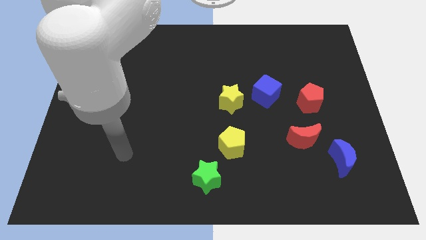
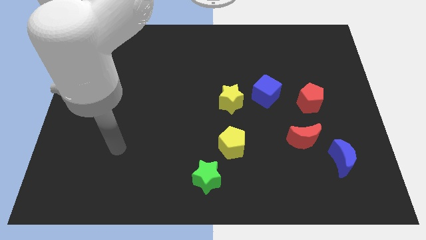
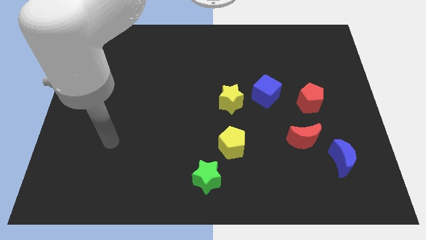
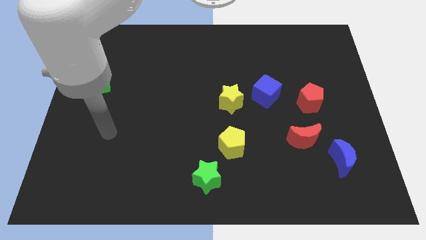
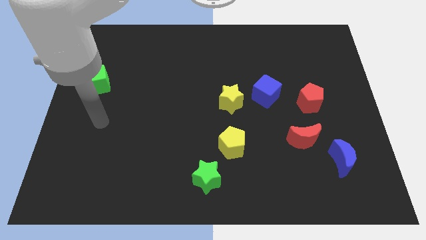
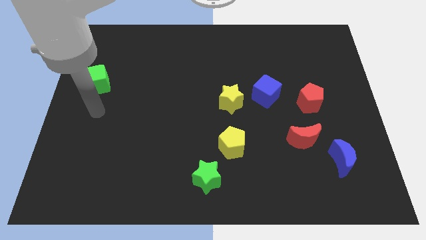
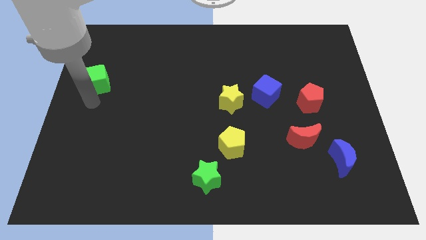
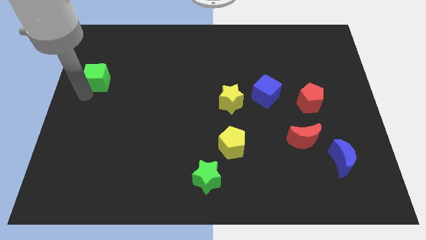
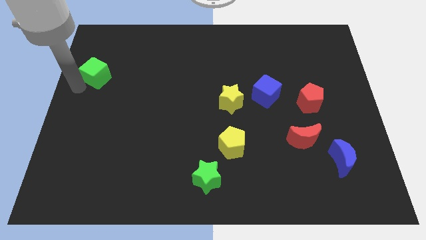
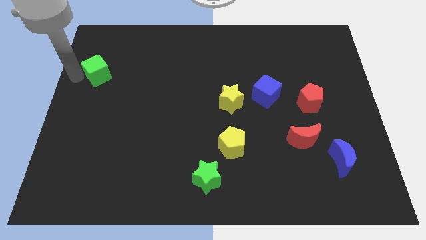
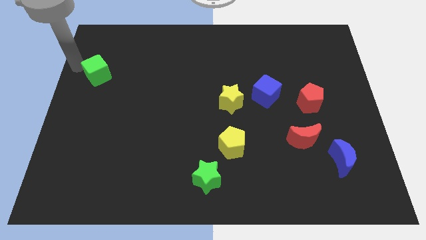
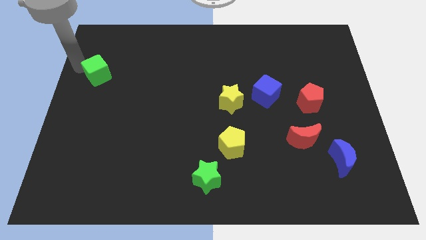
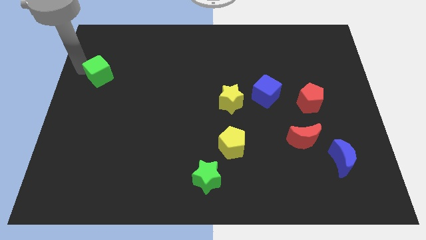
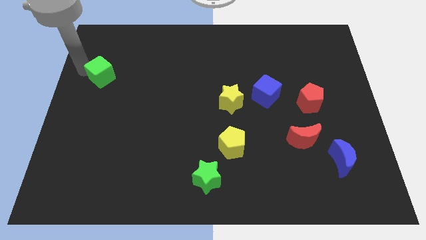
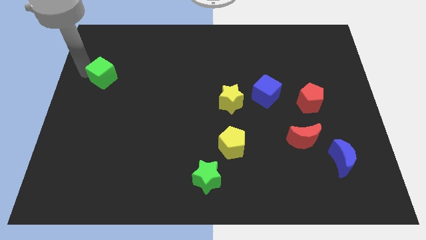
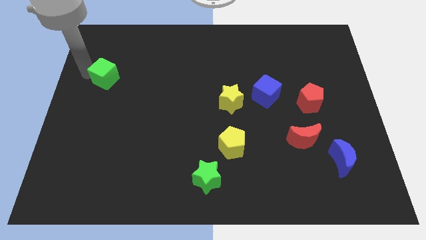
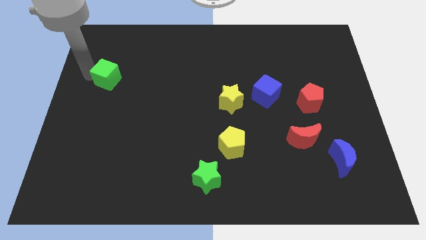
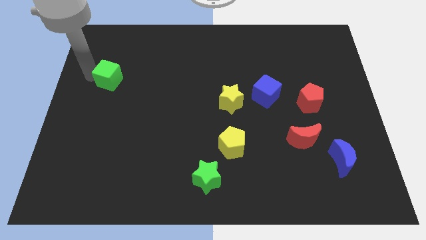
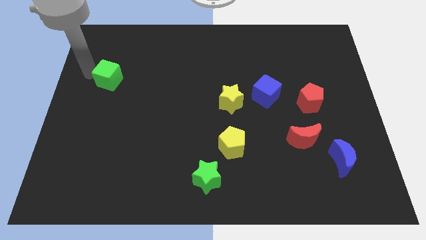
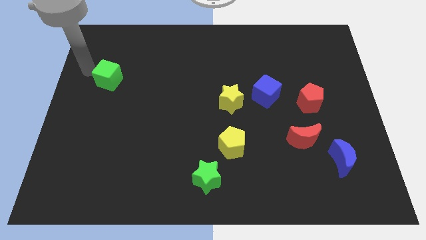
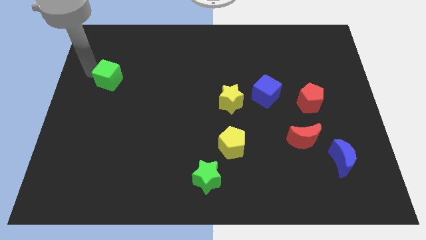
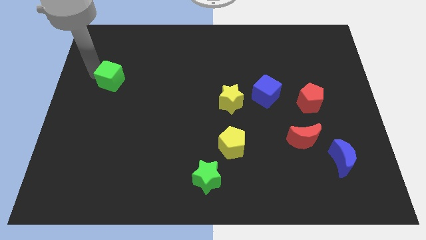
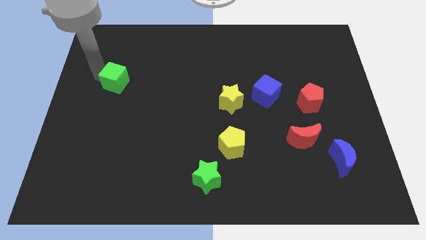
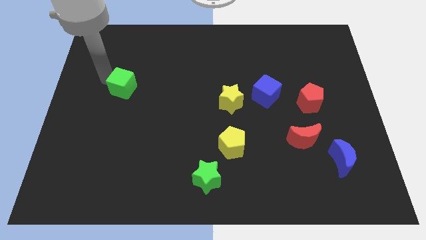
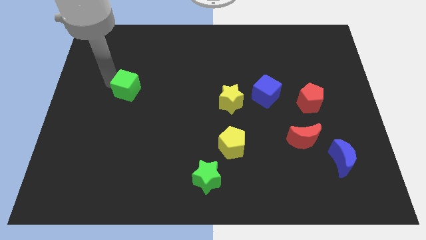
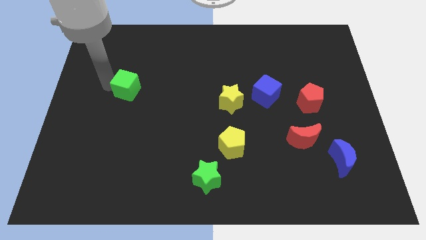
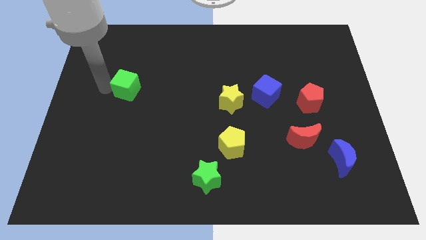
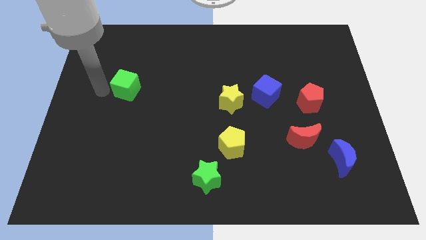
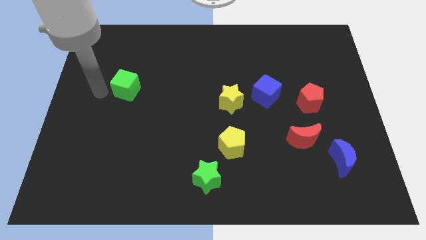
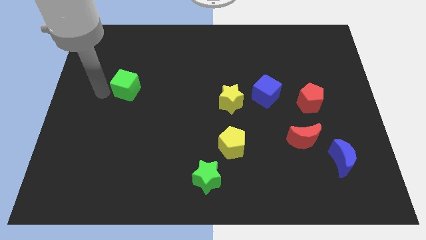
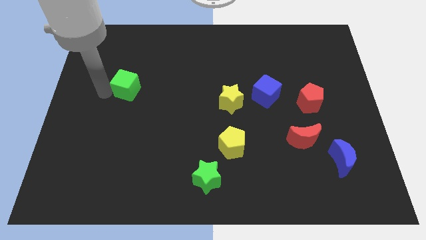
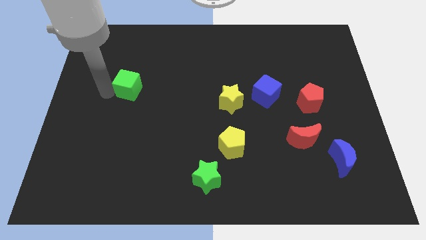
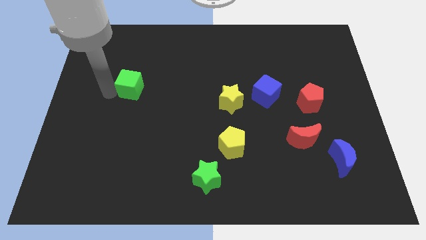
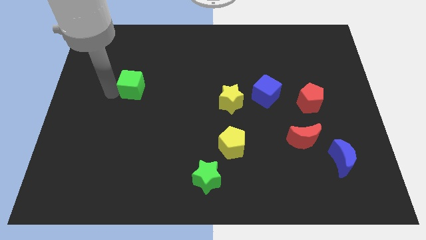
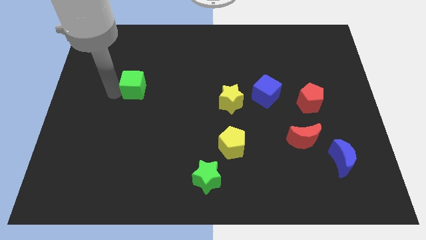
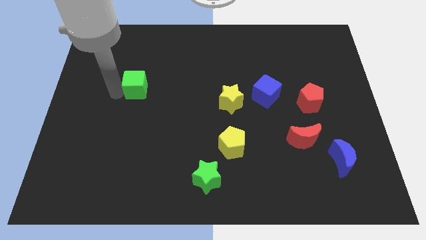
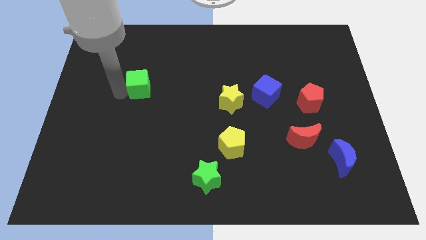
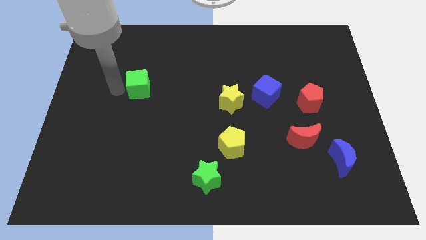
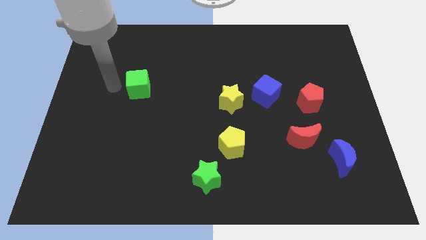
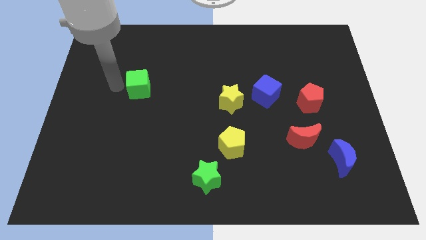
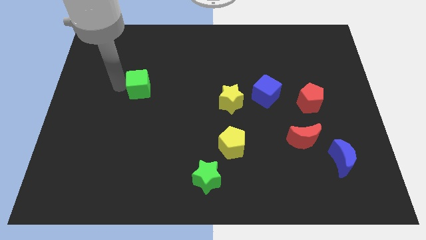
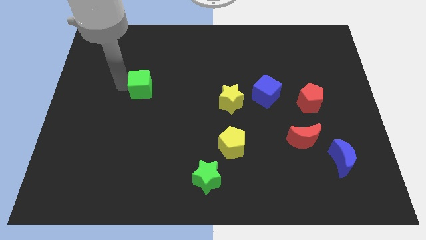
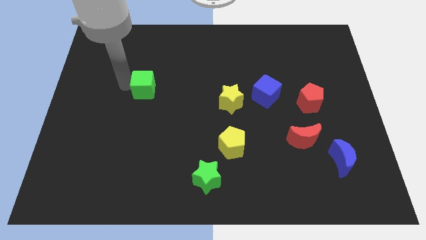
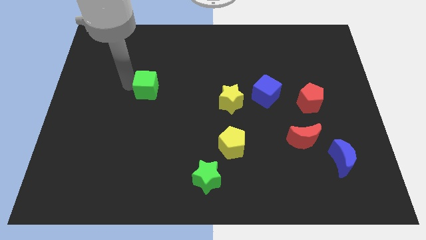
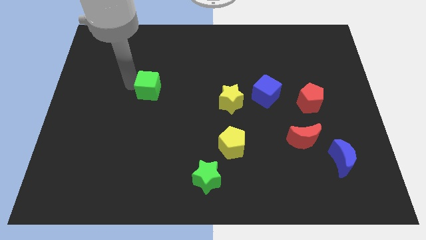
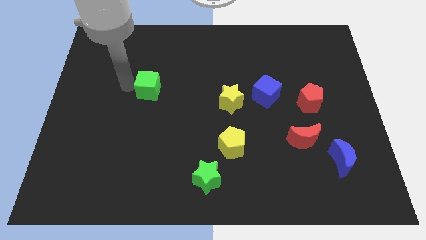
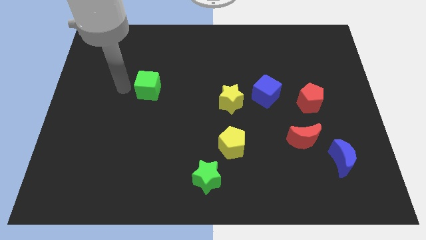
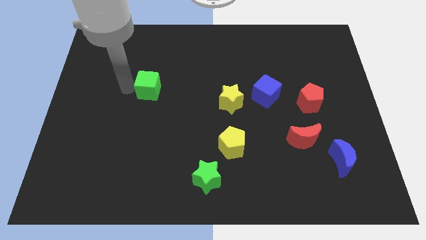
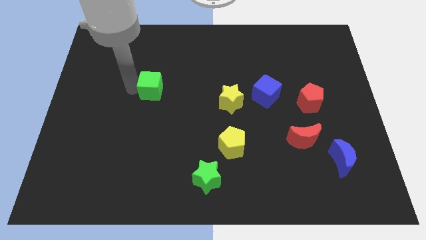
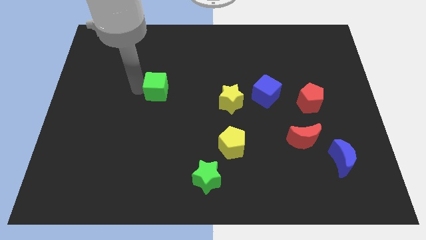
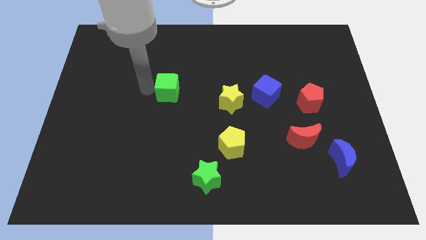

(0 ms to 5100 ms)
slide the green cube to the middle

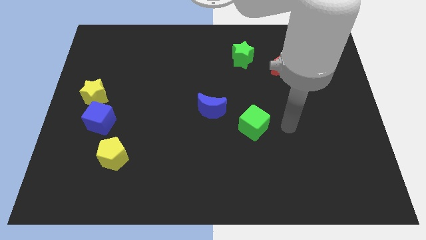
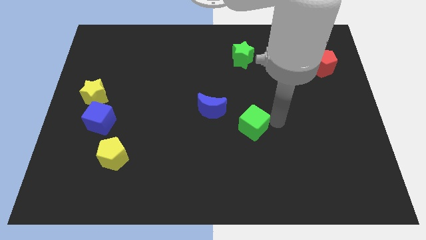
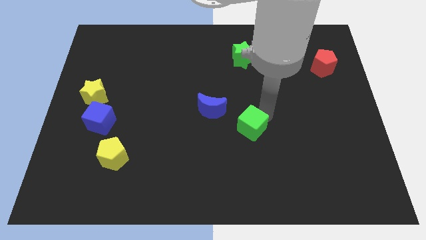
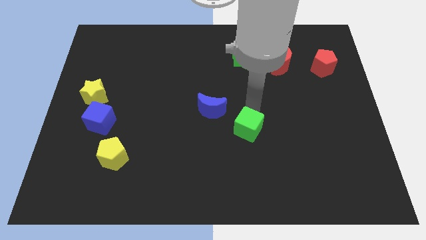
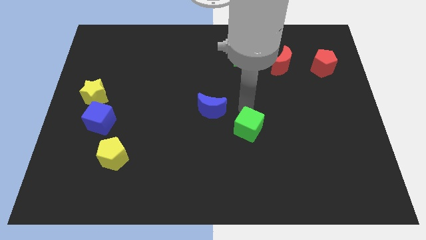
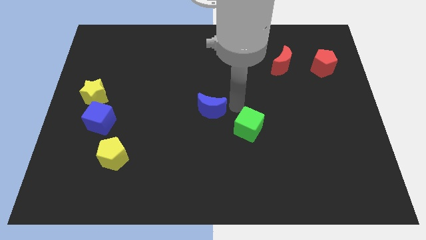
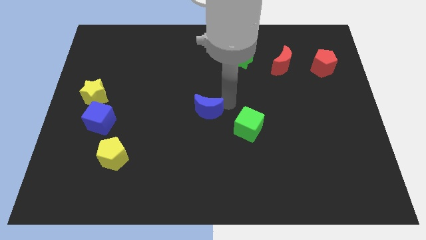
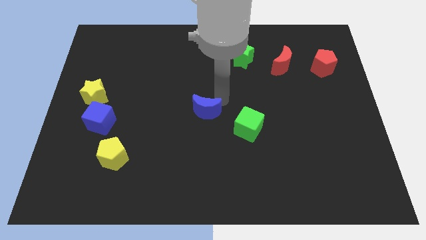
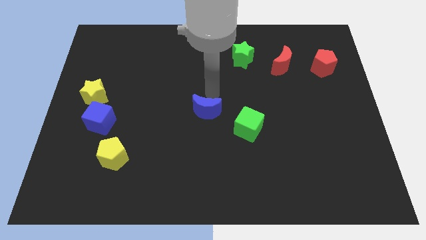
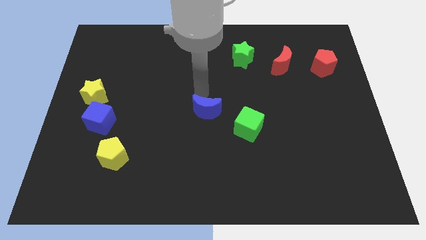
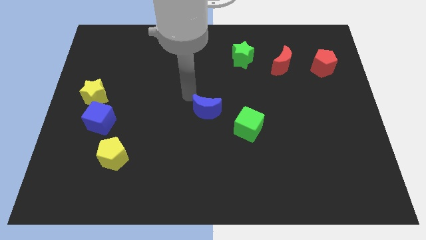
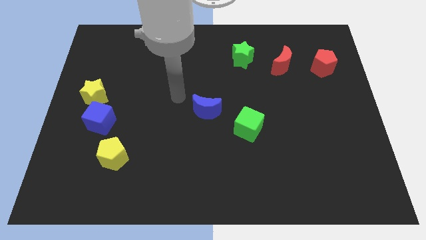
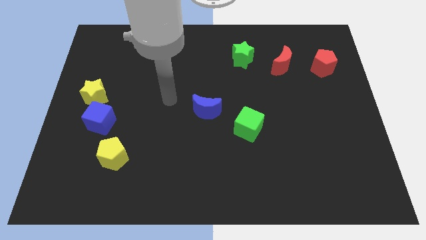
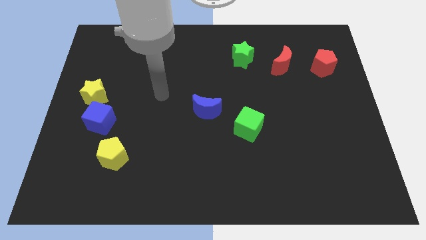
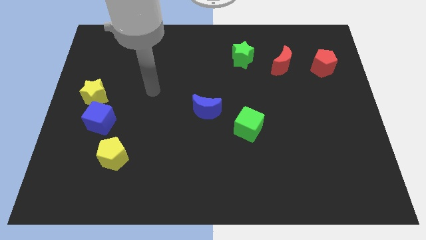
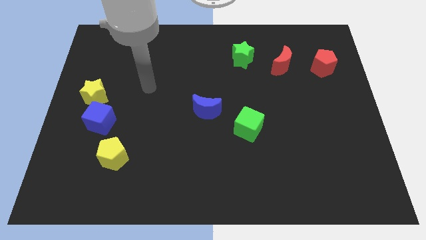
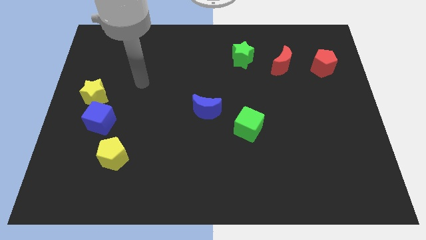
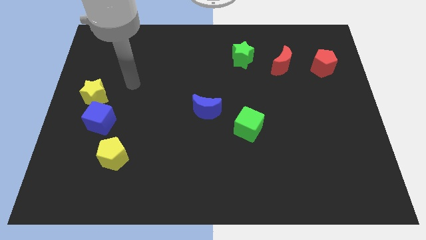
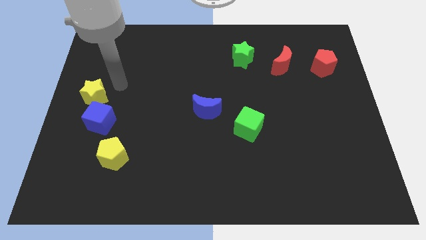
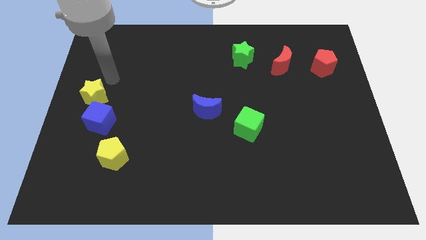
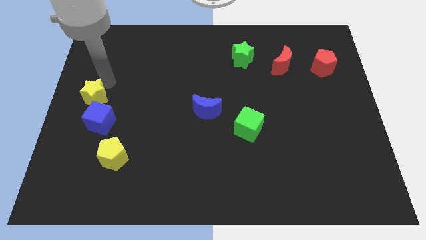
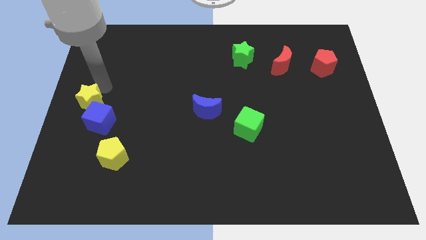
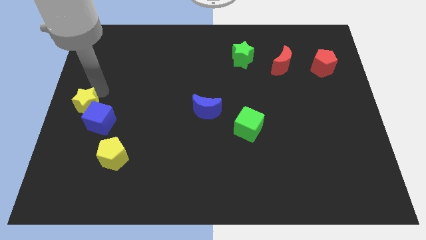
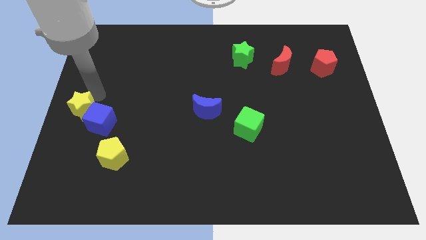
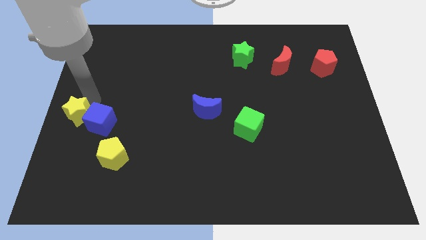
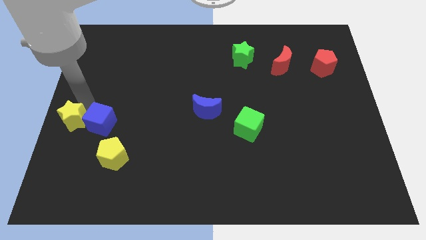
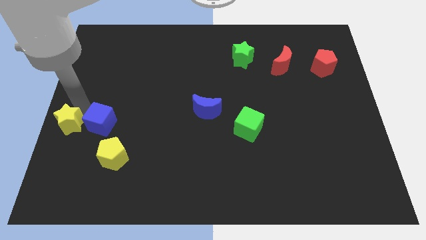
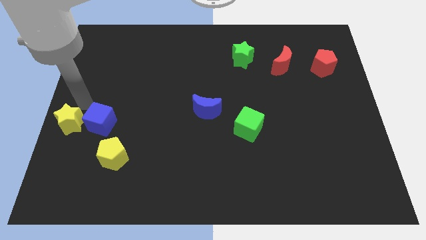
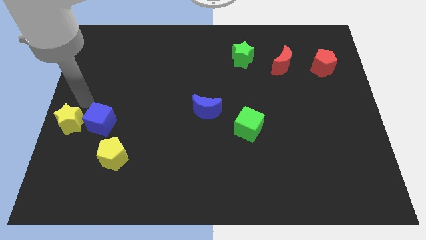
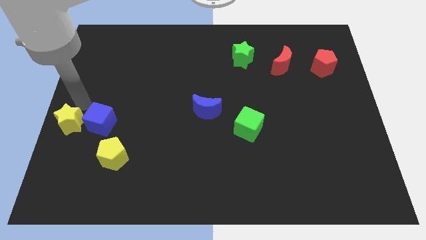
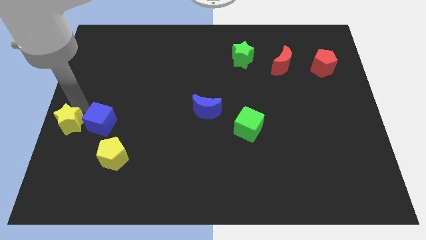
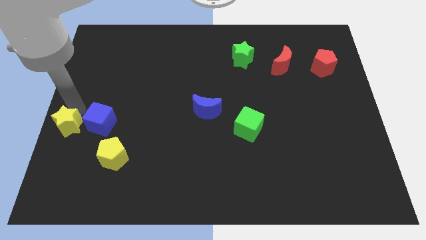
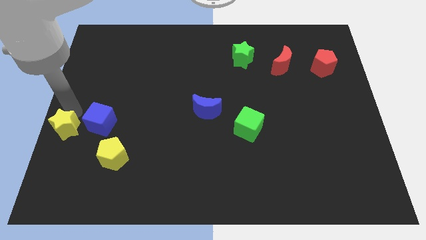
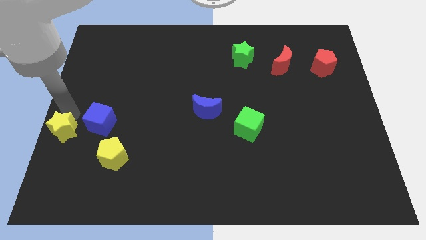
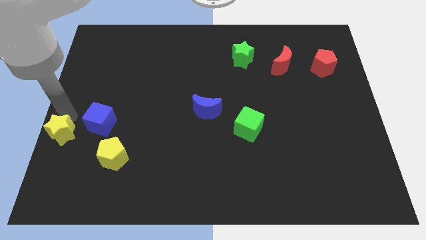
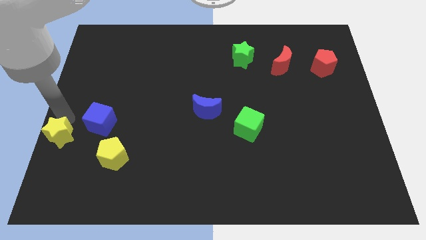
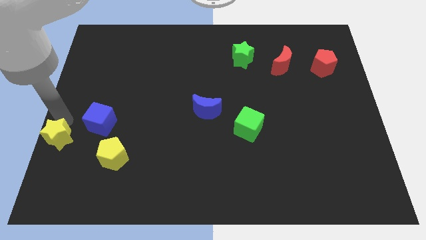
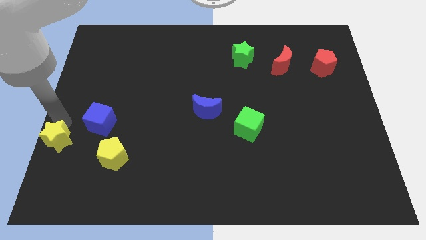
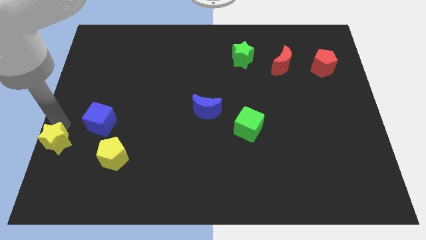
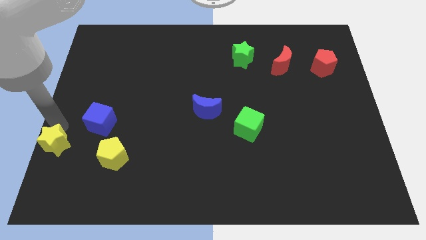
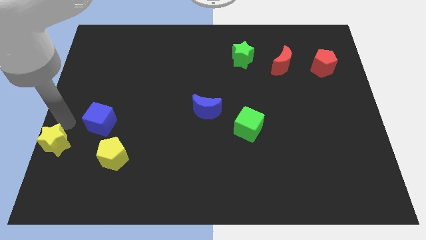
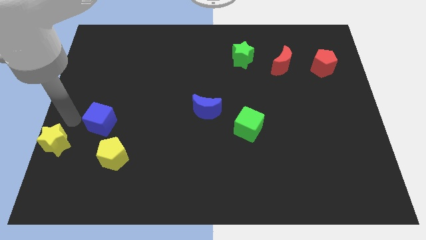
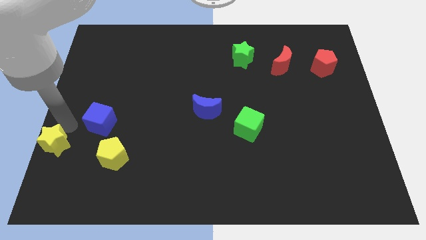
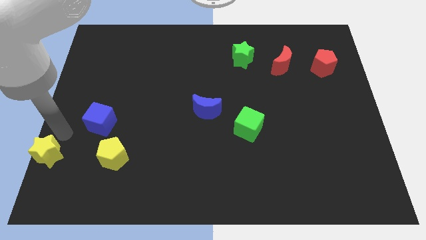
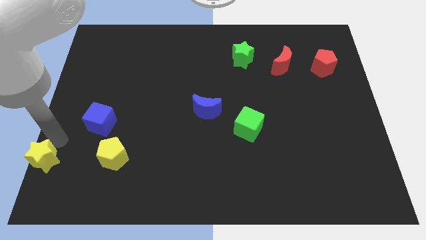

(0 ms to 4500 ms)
push the yellow star to the bottom left corner
